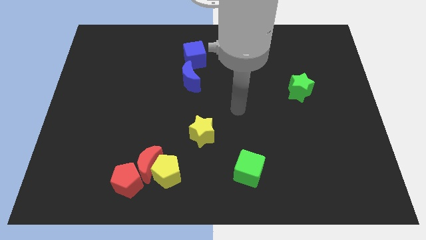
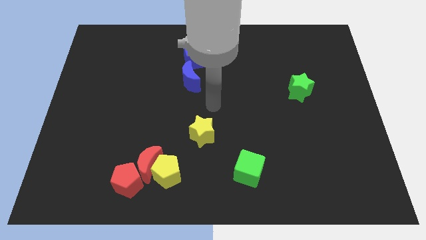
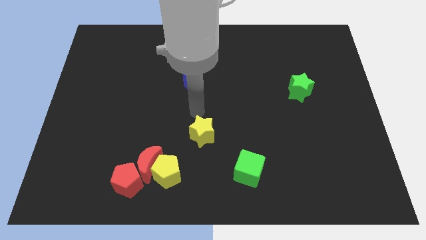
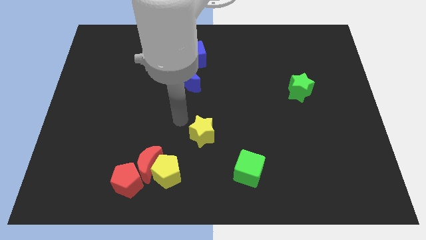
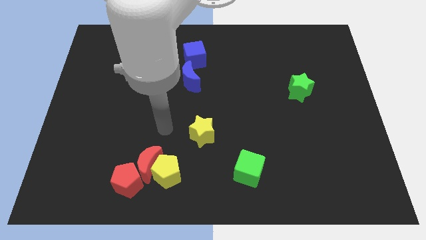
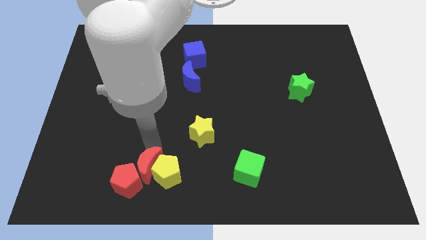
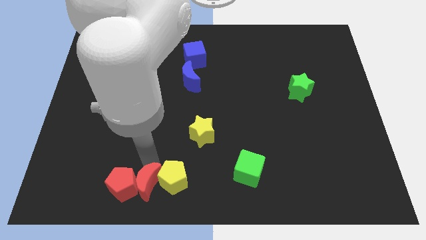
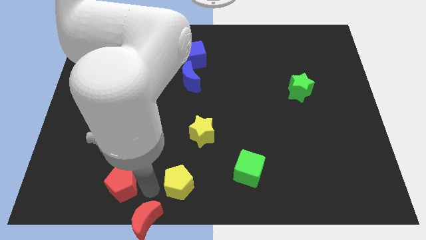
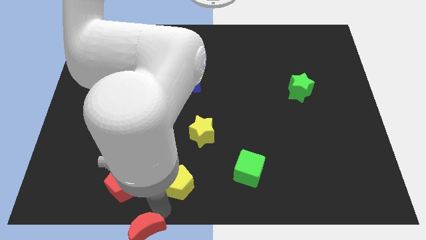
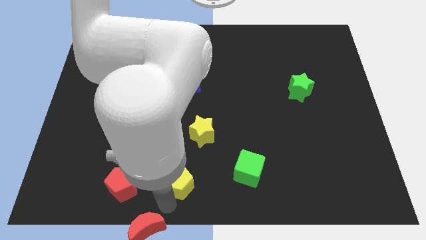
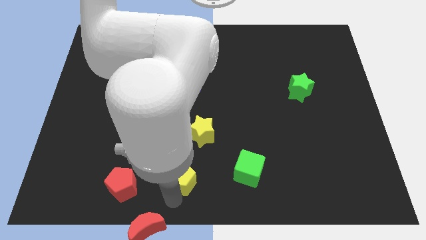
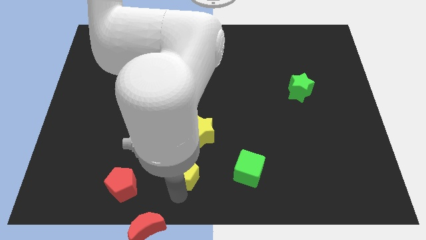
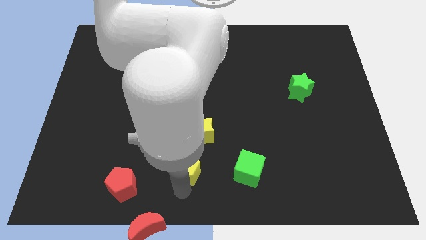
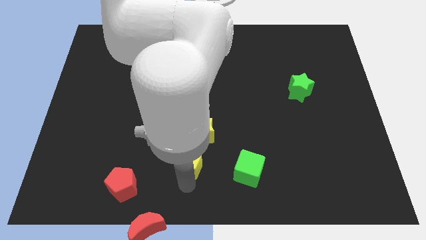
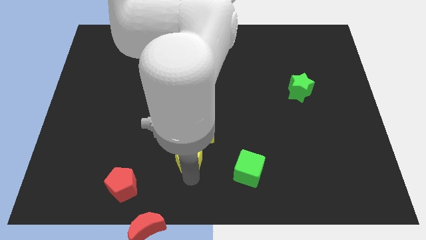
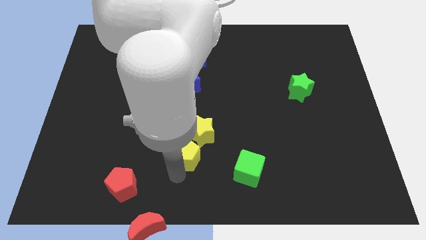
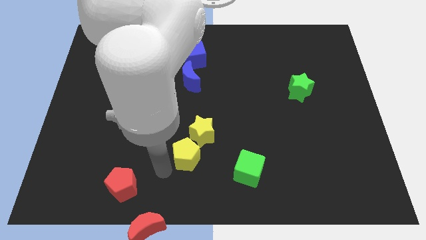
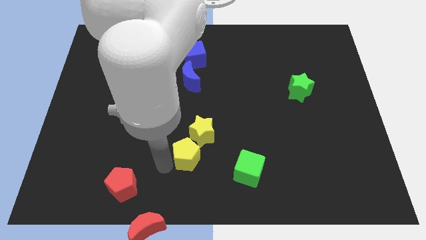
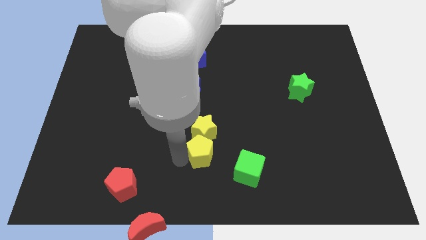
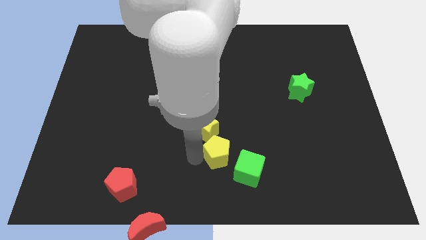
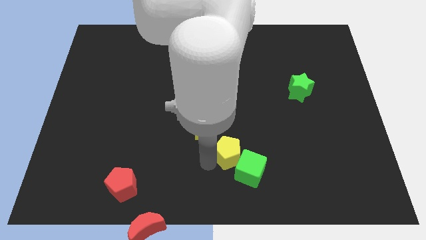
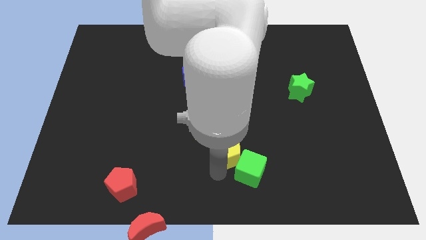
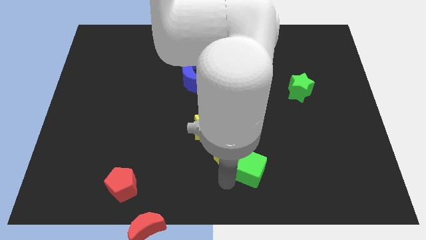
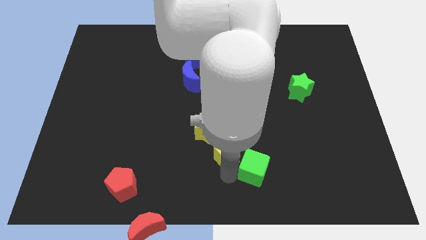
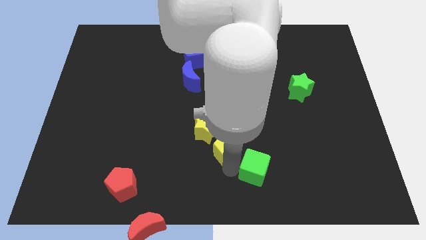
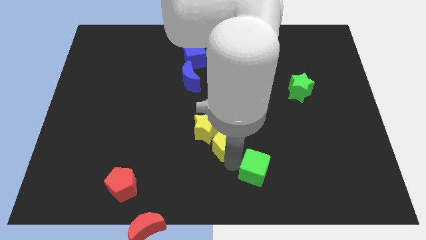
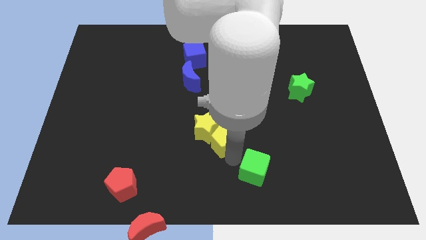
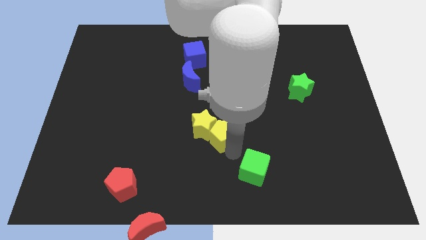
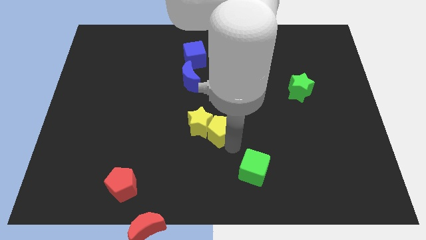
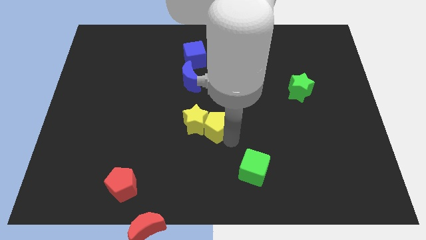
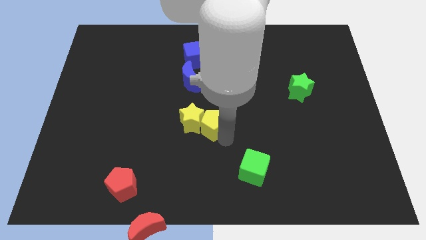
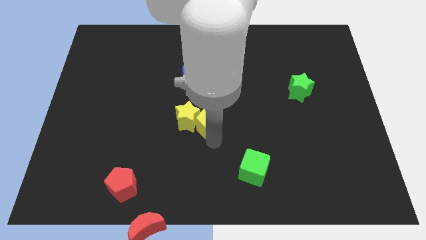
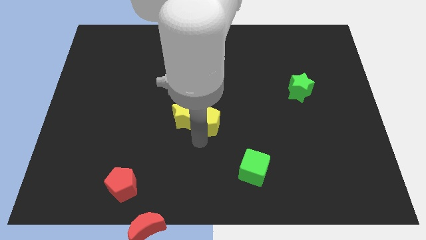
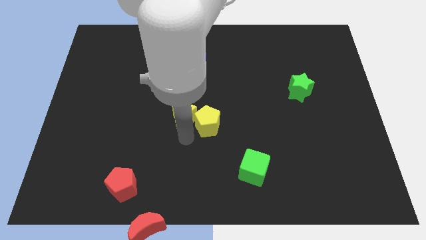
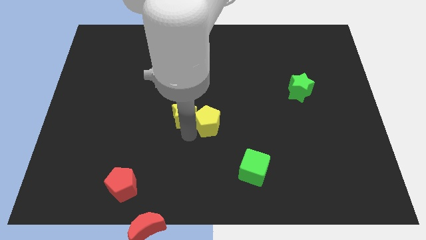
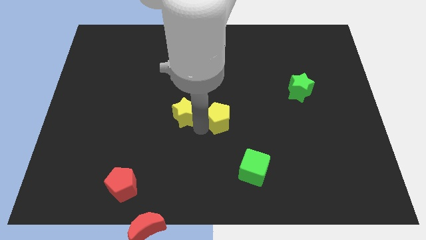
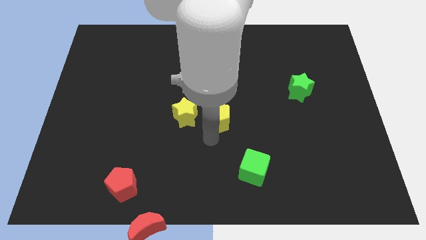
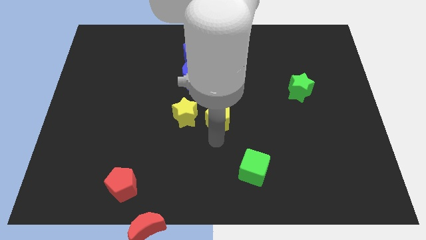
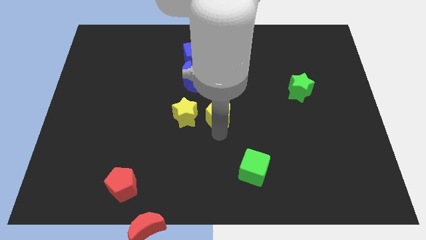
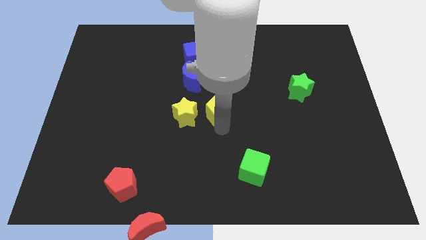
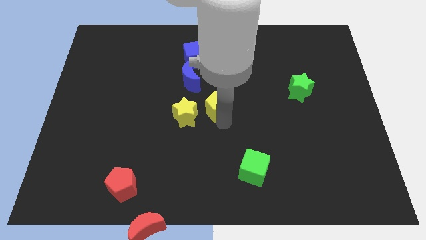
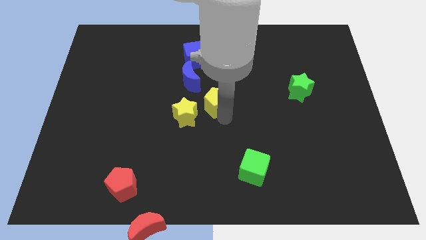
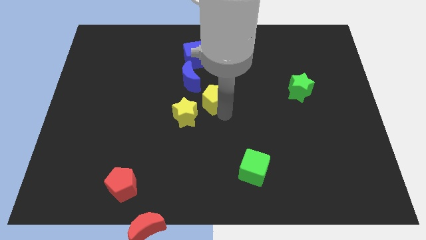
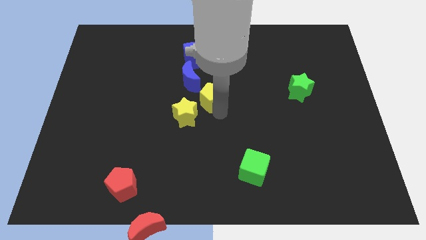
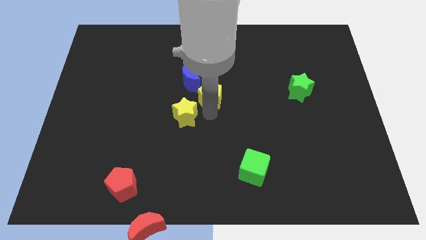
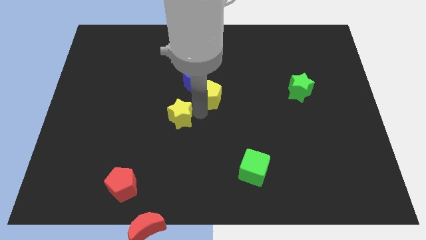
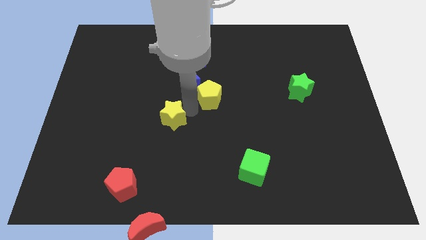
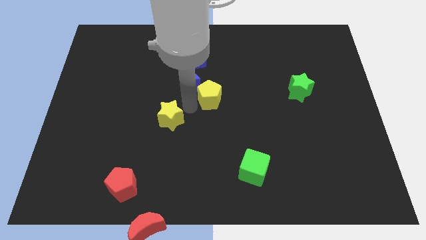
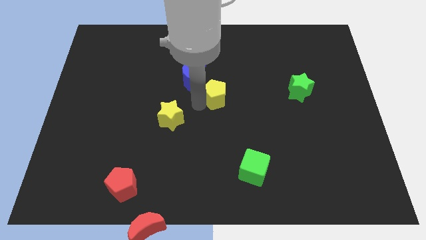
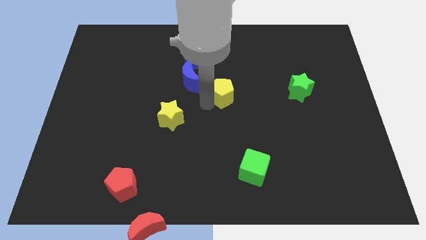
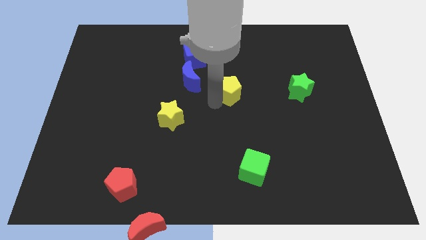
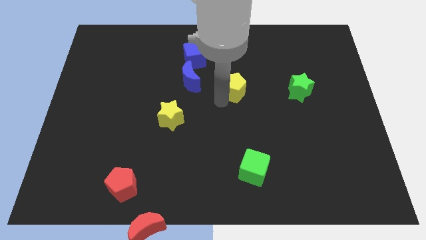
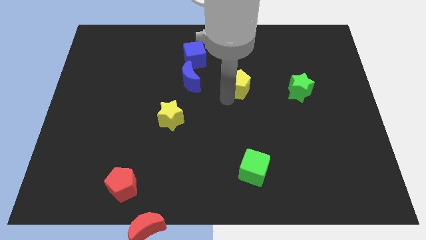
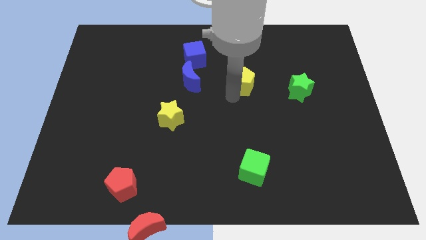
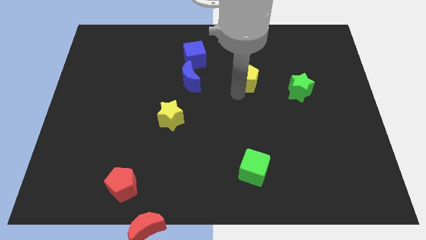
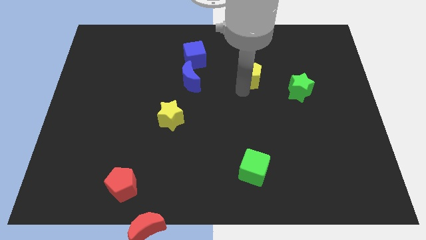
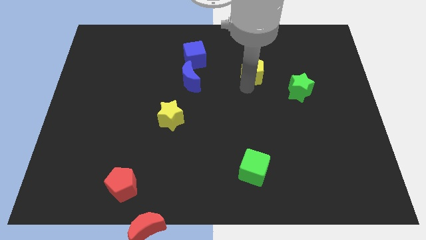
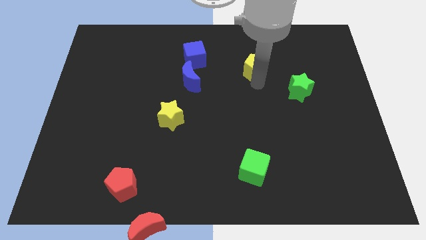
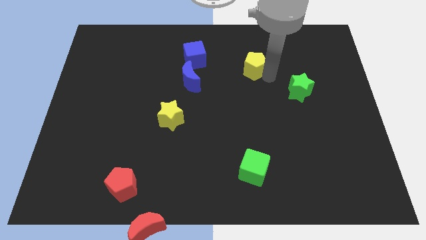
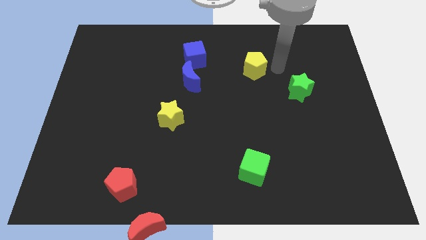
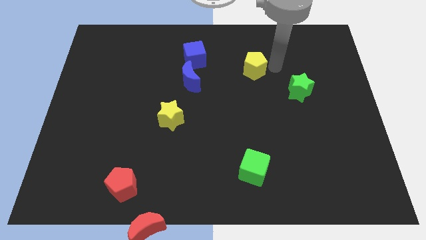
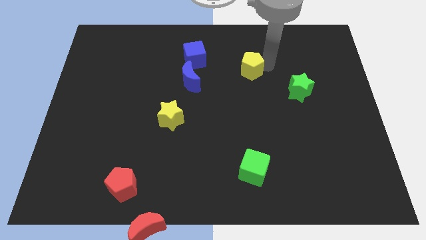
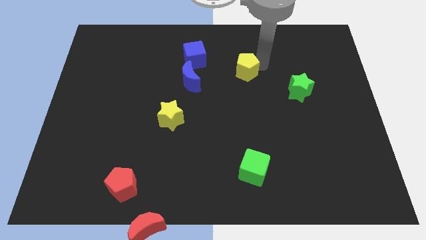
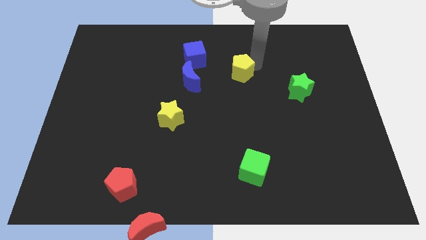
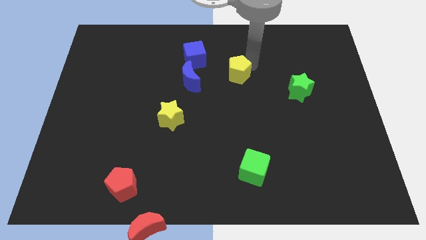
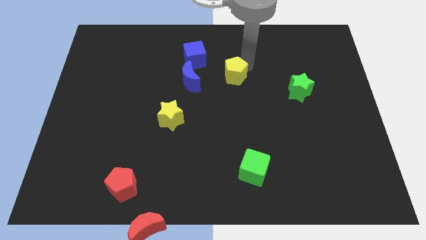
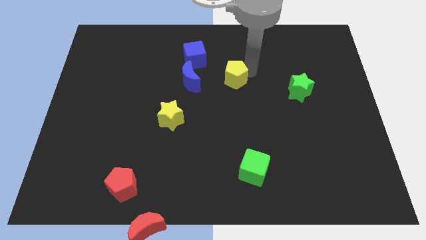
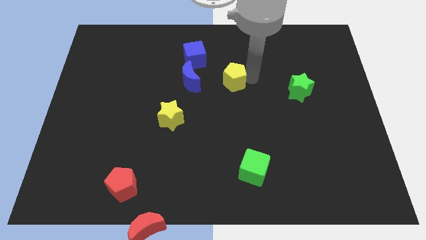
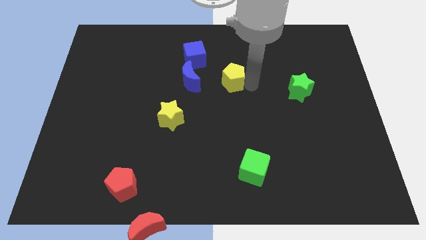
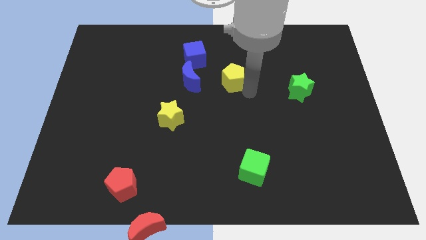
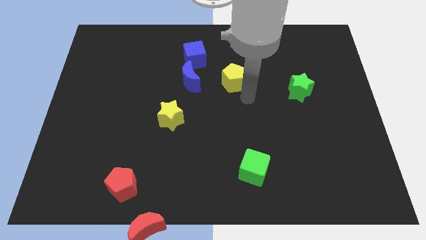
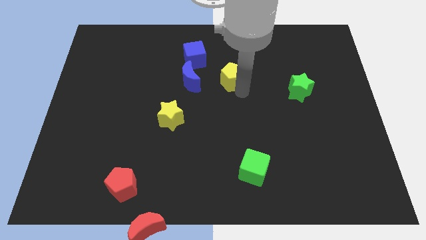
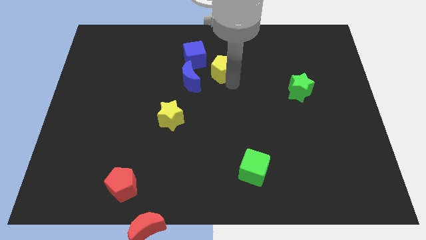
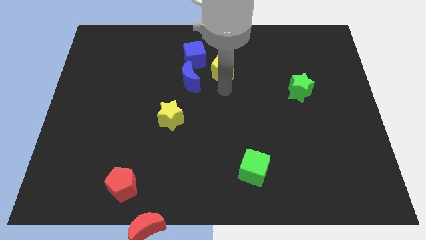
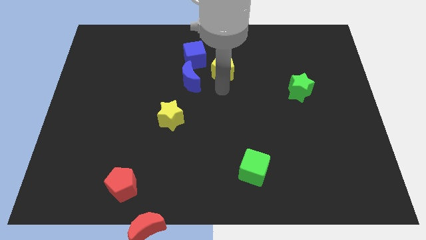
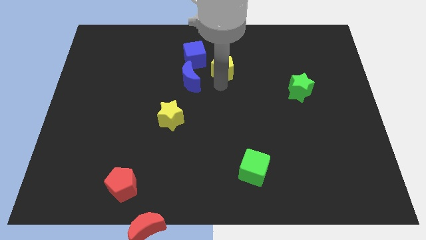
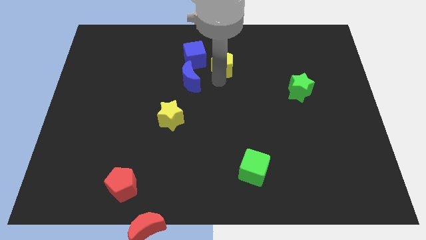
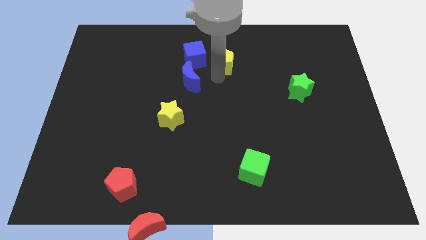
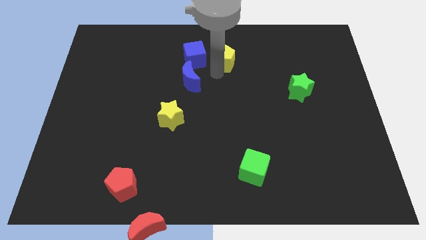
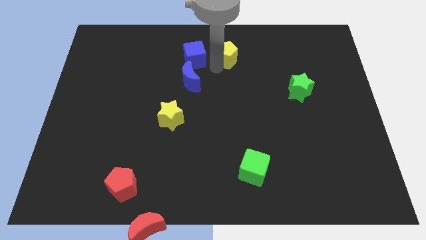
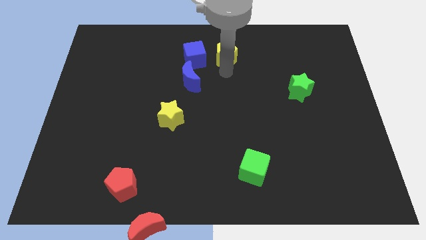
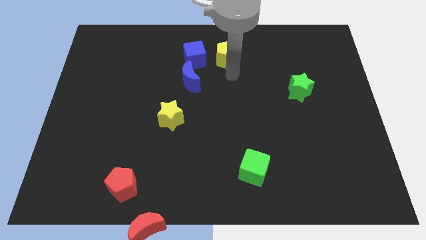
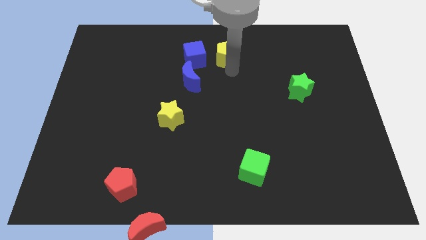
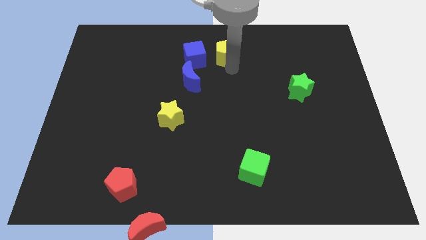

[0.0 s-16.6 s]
slide the yellow pentagon to the towards your base
